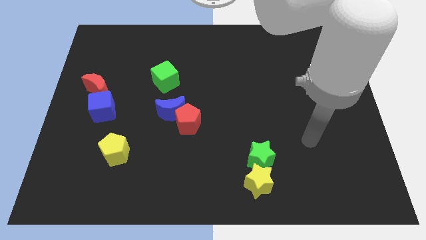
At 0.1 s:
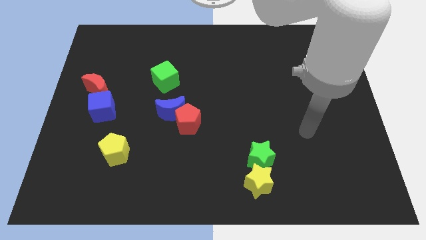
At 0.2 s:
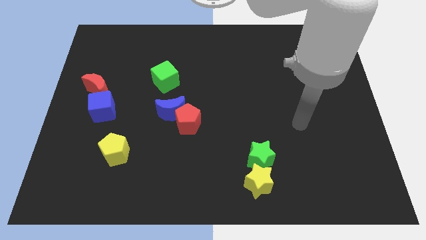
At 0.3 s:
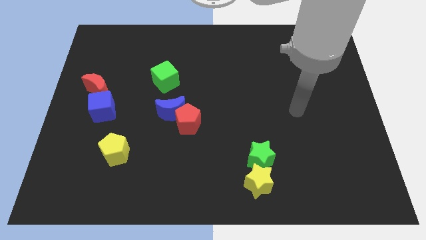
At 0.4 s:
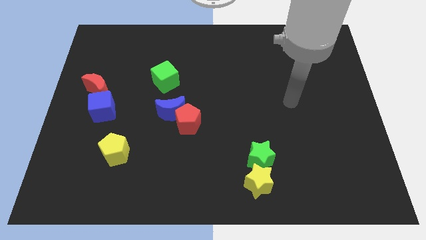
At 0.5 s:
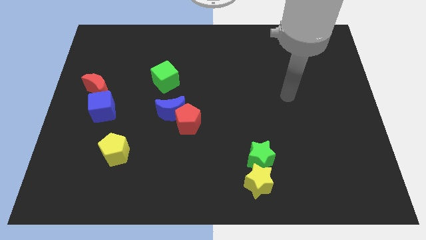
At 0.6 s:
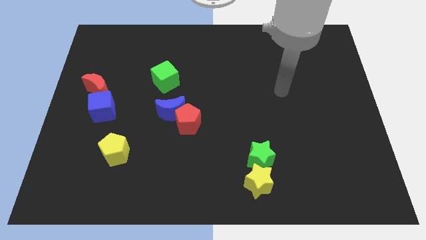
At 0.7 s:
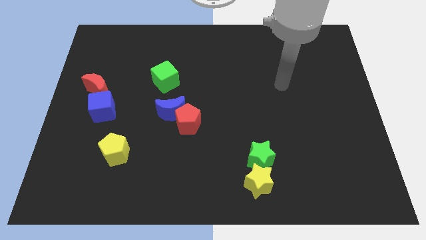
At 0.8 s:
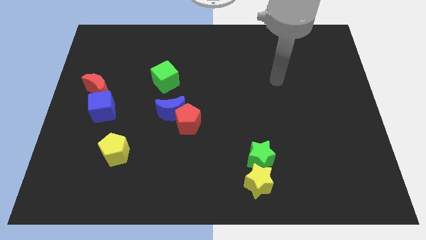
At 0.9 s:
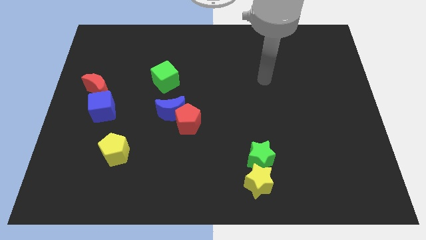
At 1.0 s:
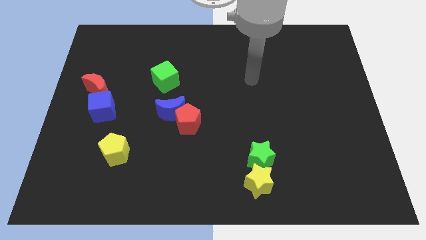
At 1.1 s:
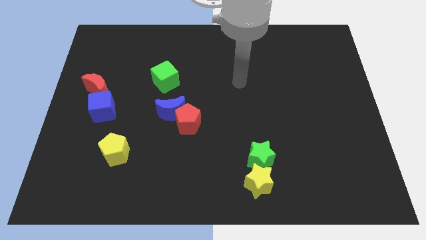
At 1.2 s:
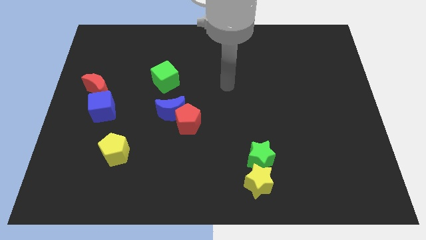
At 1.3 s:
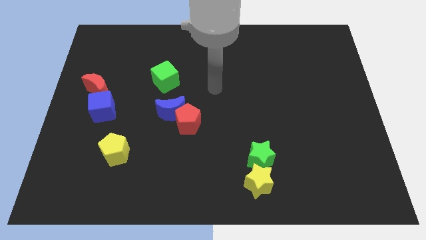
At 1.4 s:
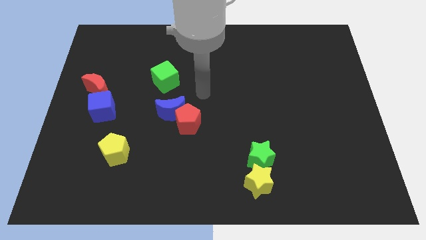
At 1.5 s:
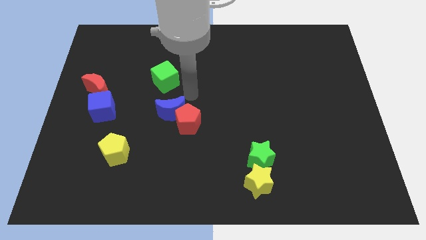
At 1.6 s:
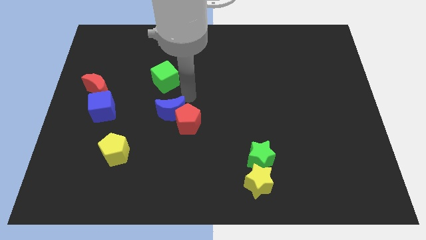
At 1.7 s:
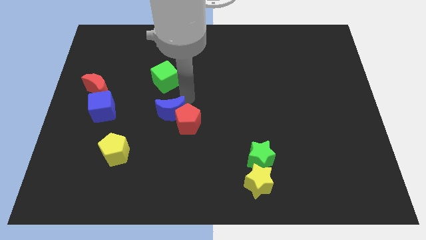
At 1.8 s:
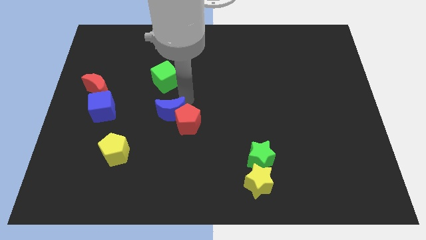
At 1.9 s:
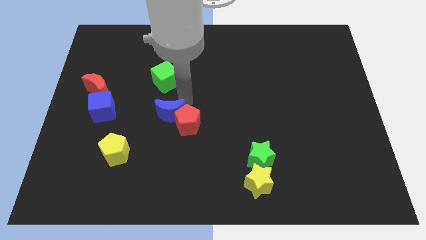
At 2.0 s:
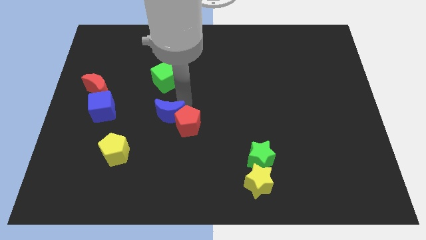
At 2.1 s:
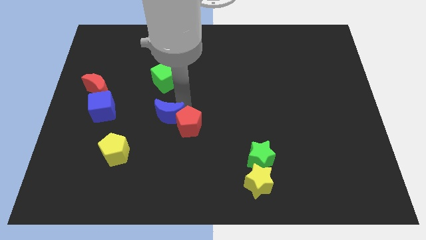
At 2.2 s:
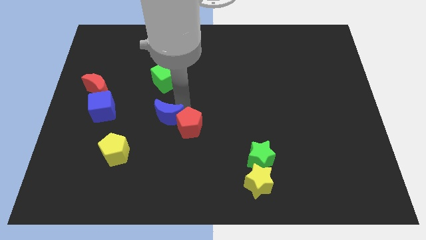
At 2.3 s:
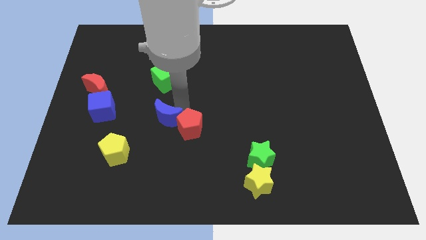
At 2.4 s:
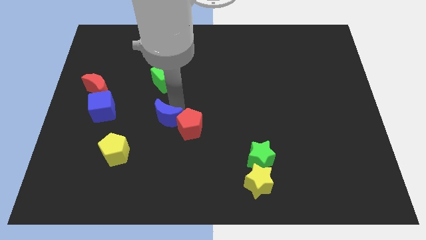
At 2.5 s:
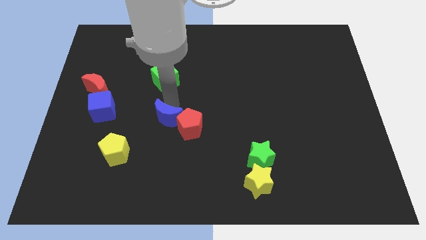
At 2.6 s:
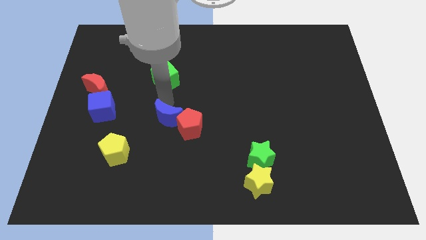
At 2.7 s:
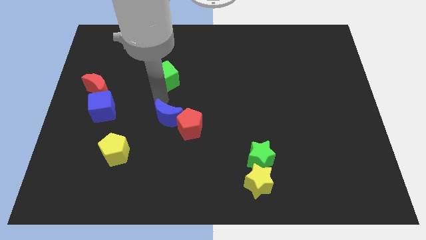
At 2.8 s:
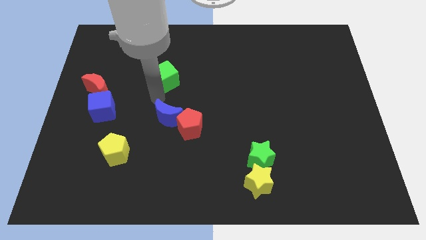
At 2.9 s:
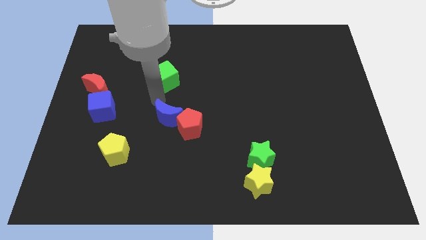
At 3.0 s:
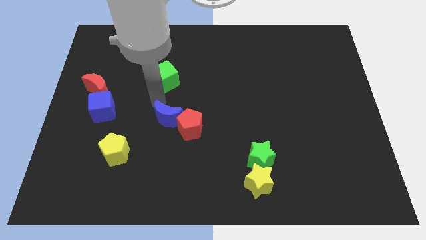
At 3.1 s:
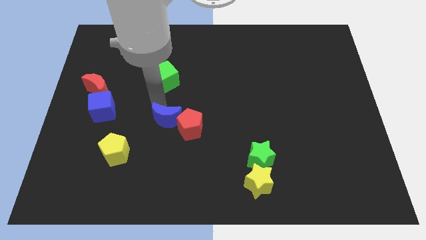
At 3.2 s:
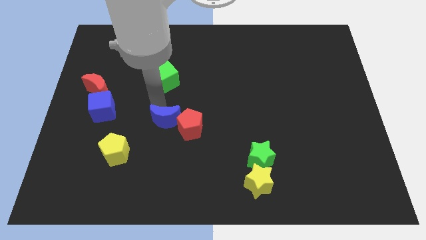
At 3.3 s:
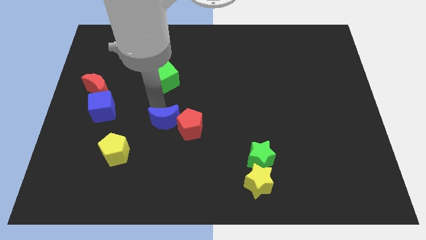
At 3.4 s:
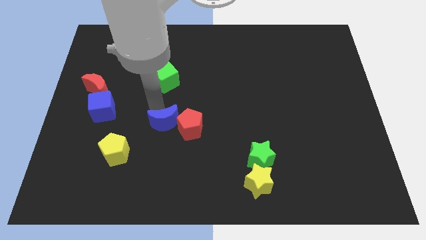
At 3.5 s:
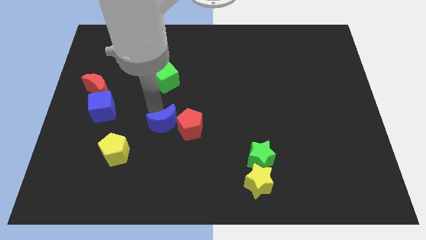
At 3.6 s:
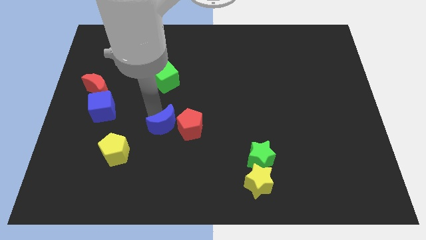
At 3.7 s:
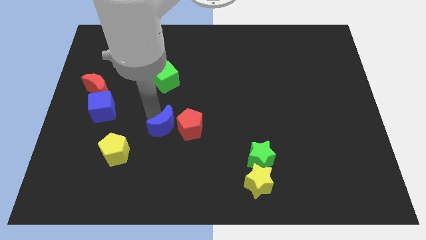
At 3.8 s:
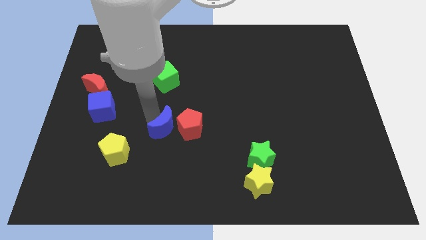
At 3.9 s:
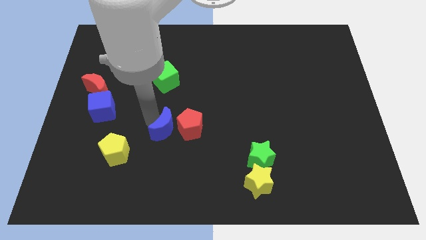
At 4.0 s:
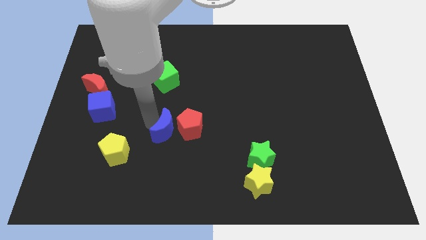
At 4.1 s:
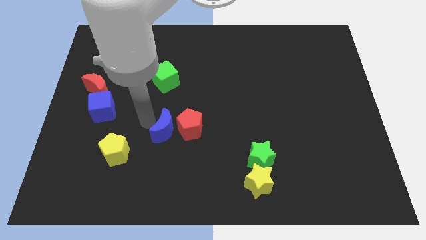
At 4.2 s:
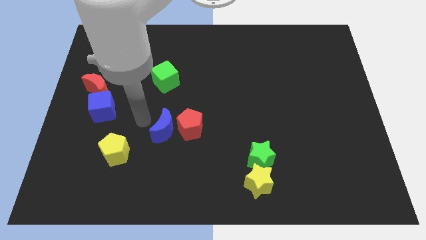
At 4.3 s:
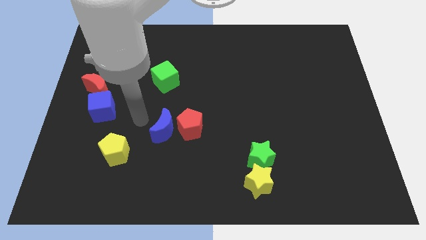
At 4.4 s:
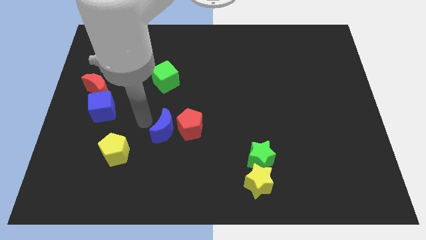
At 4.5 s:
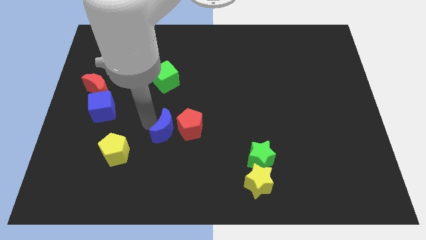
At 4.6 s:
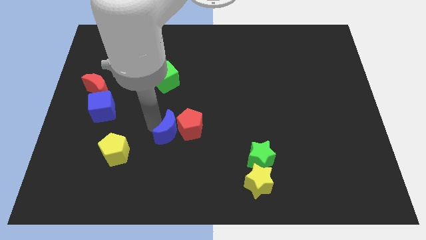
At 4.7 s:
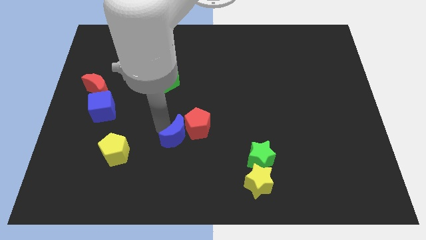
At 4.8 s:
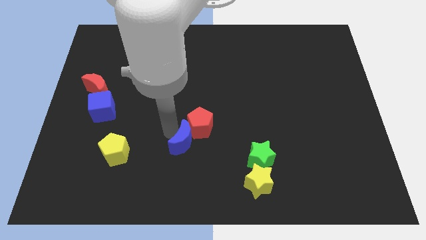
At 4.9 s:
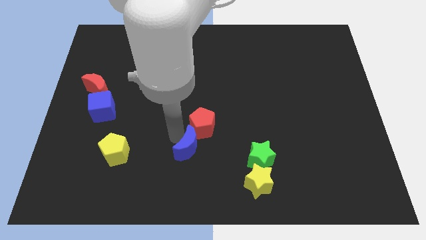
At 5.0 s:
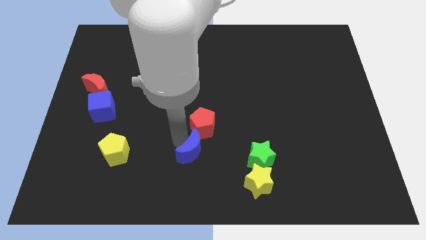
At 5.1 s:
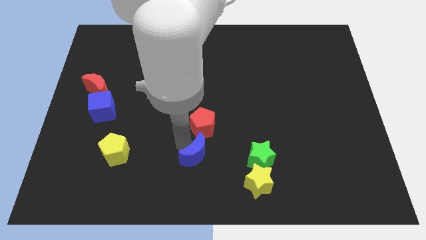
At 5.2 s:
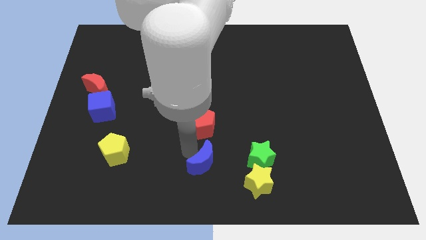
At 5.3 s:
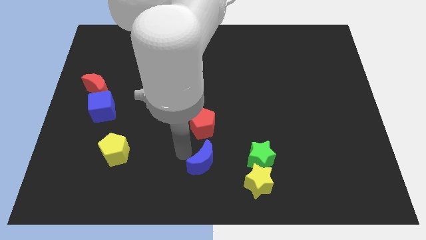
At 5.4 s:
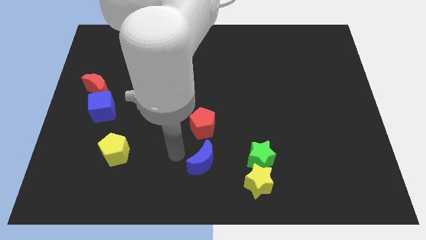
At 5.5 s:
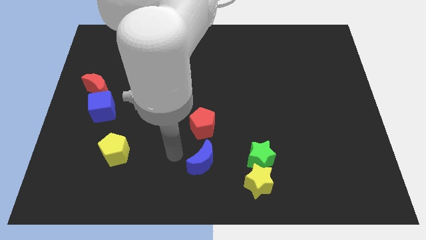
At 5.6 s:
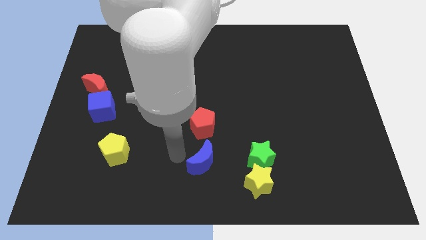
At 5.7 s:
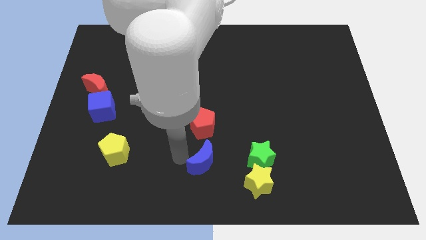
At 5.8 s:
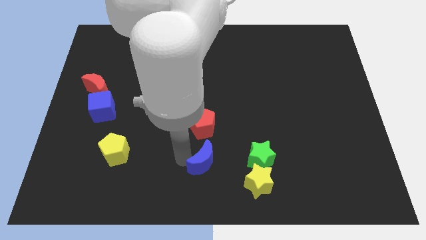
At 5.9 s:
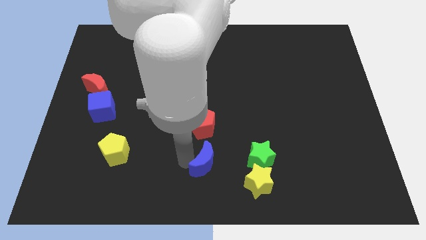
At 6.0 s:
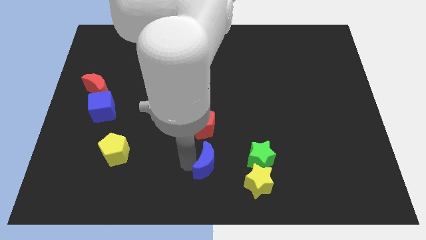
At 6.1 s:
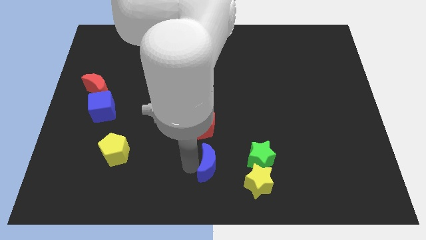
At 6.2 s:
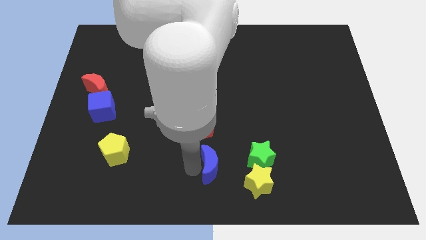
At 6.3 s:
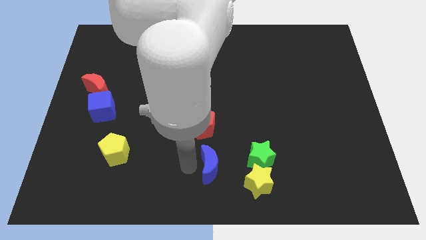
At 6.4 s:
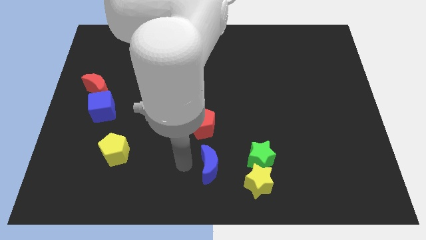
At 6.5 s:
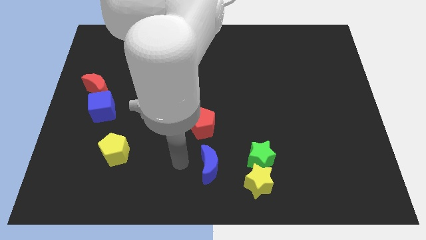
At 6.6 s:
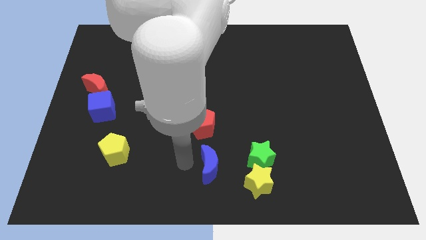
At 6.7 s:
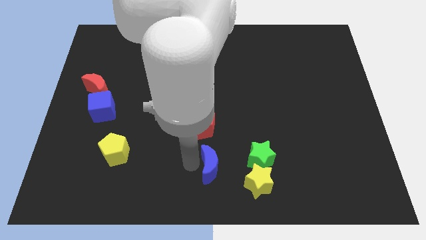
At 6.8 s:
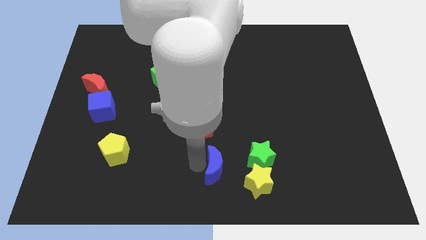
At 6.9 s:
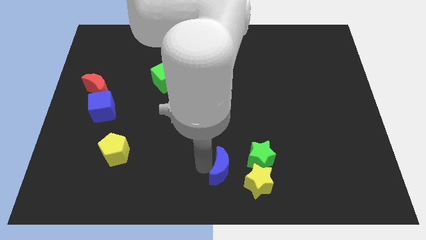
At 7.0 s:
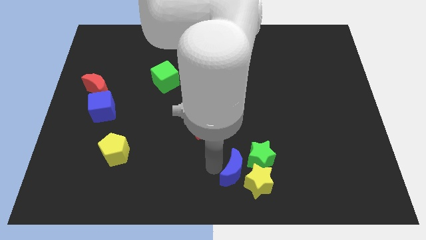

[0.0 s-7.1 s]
put the blue moon next to the yellow star
